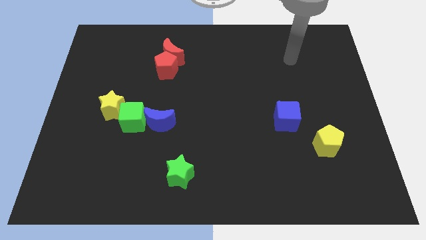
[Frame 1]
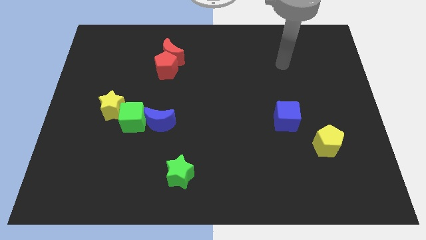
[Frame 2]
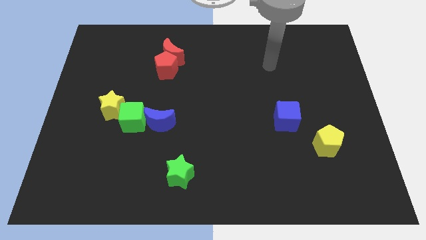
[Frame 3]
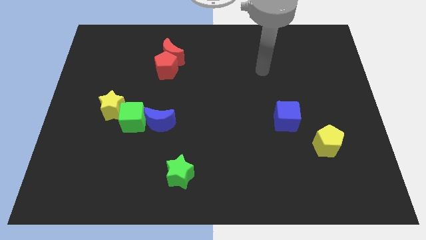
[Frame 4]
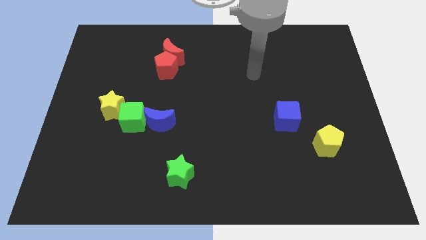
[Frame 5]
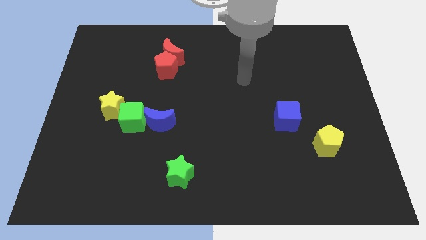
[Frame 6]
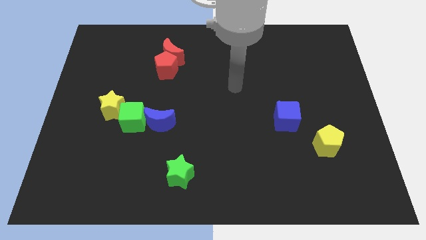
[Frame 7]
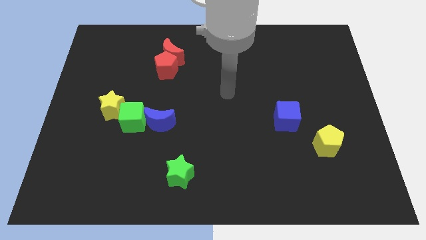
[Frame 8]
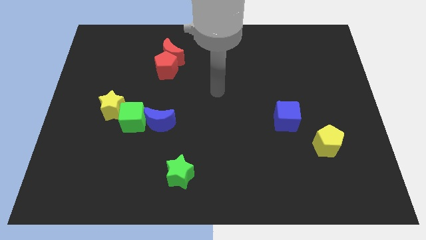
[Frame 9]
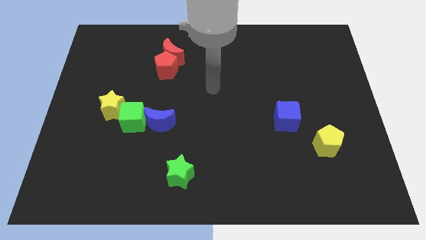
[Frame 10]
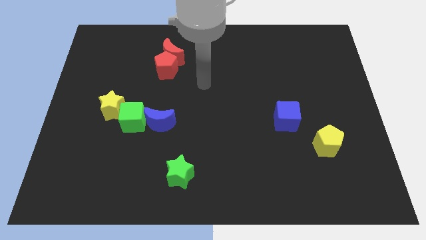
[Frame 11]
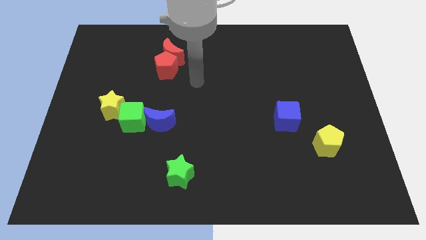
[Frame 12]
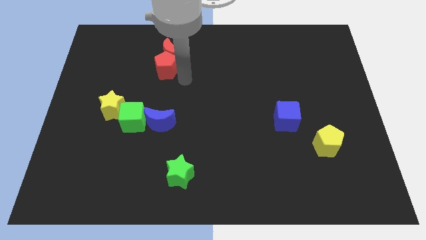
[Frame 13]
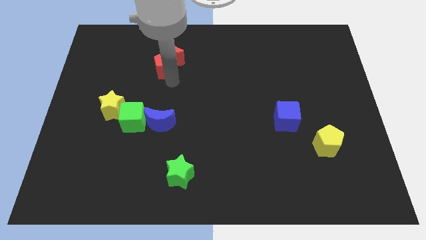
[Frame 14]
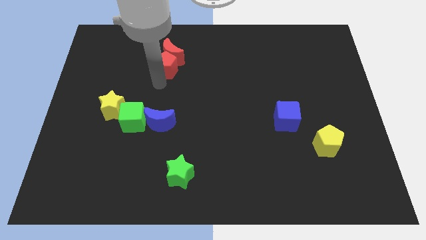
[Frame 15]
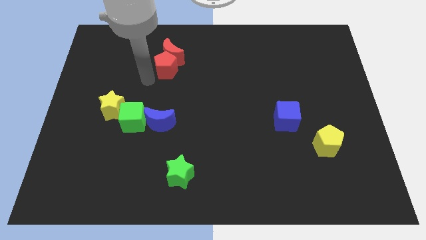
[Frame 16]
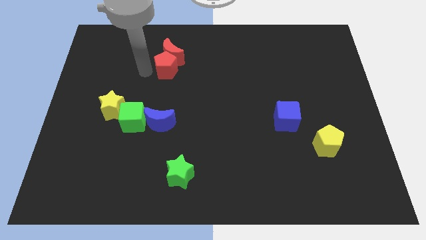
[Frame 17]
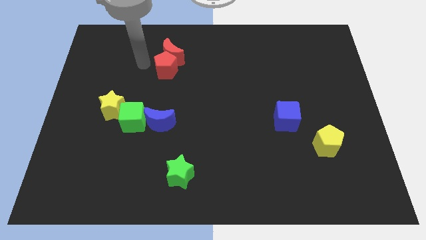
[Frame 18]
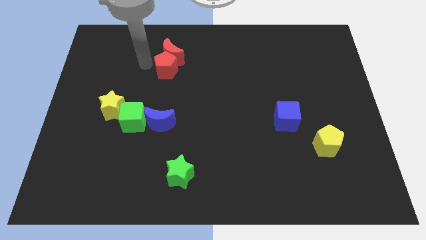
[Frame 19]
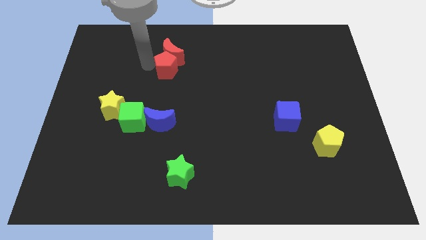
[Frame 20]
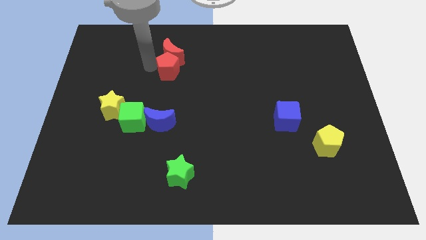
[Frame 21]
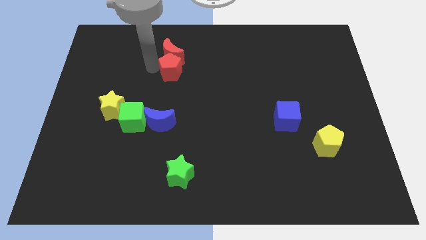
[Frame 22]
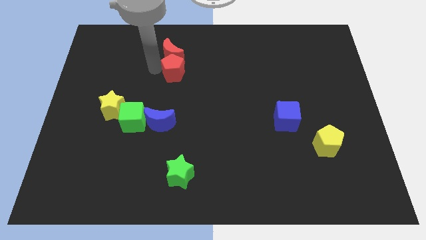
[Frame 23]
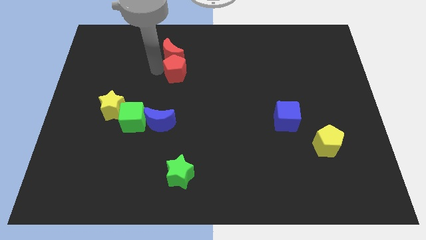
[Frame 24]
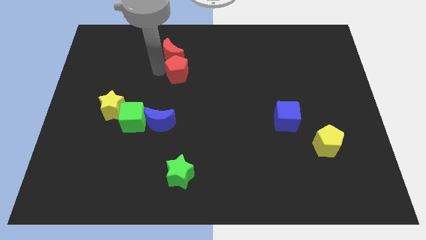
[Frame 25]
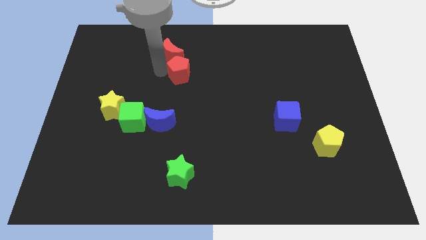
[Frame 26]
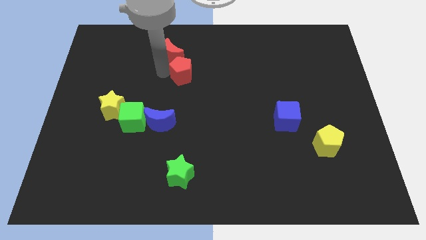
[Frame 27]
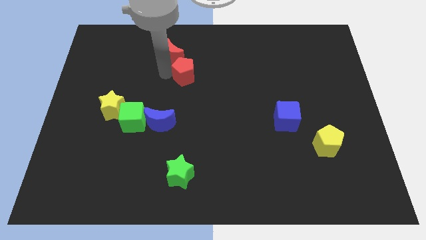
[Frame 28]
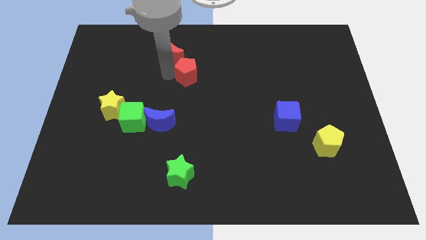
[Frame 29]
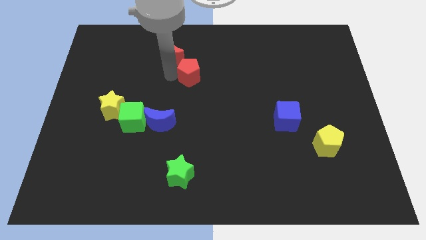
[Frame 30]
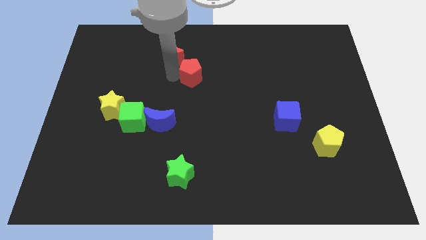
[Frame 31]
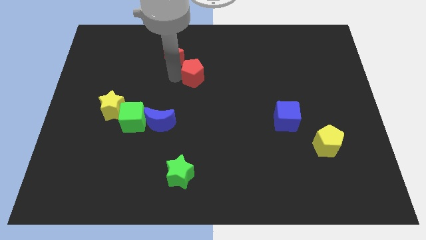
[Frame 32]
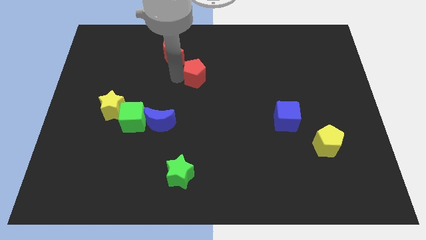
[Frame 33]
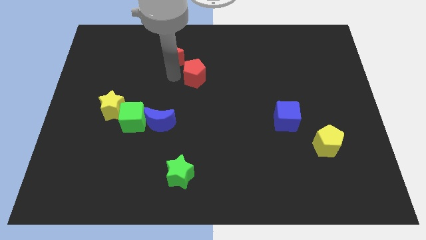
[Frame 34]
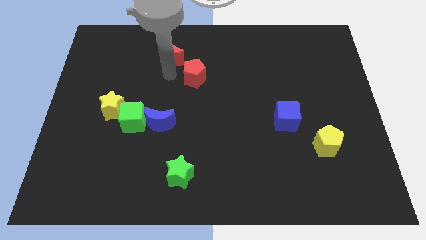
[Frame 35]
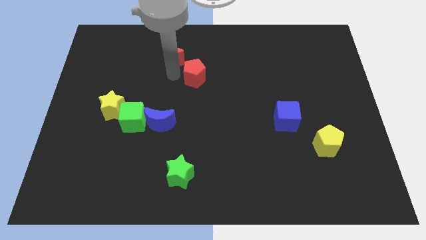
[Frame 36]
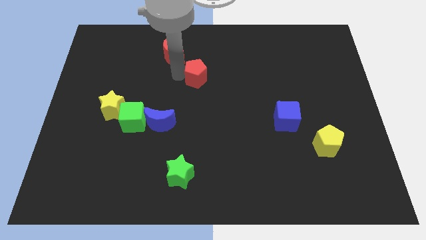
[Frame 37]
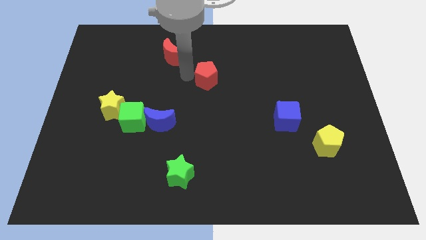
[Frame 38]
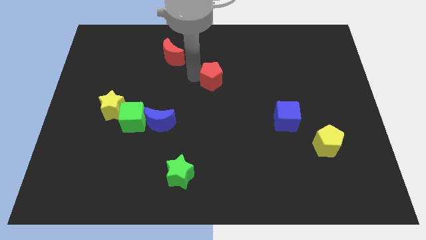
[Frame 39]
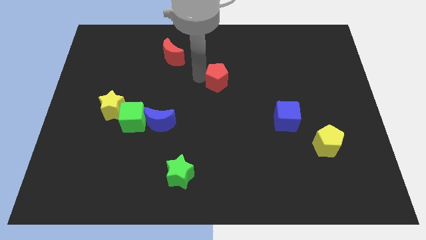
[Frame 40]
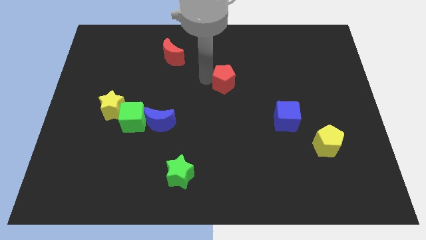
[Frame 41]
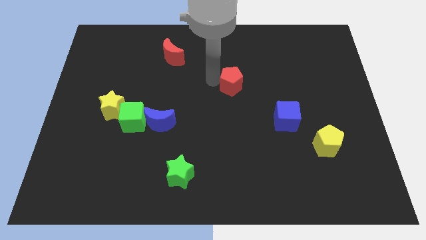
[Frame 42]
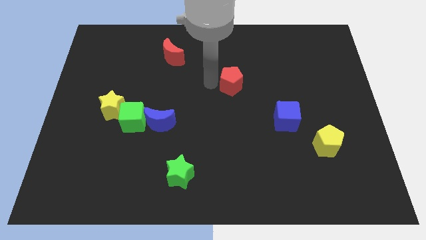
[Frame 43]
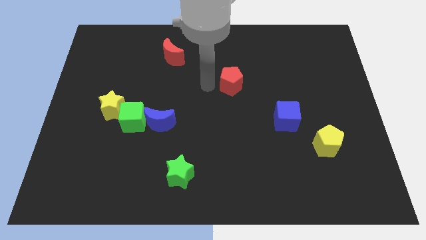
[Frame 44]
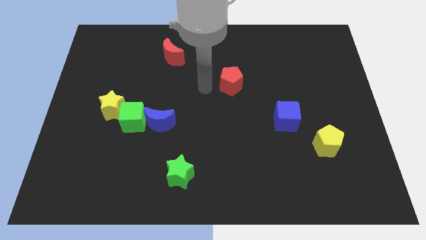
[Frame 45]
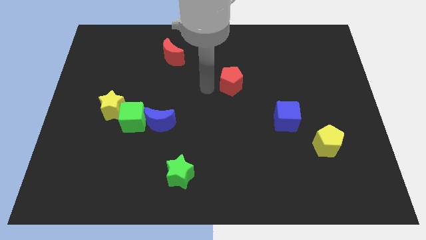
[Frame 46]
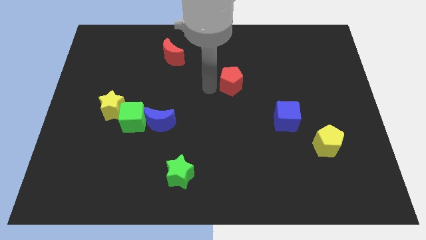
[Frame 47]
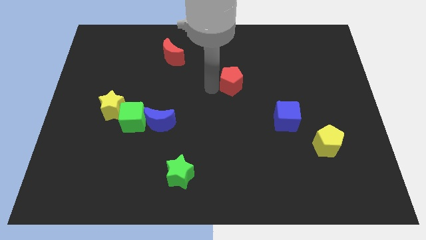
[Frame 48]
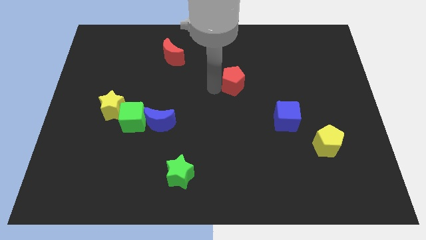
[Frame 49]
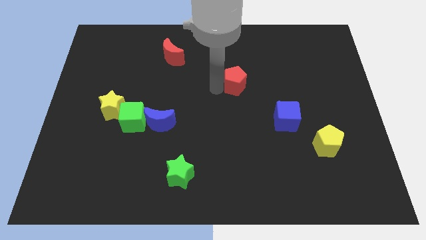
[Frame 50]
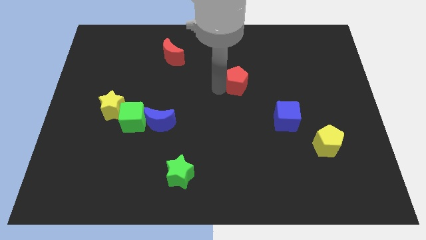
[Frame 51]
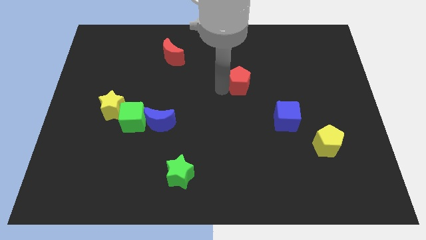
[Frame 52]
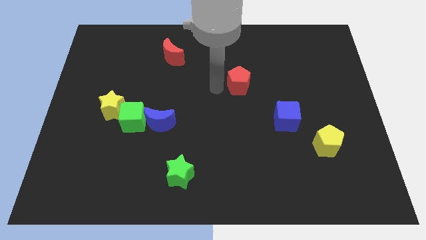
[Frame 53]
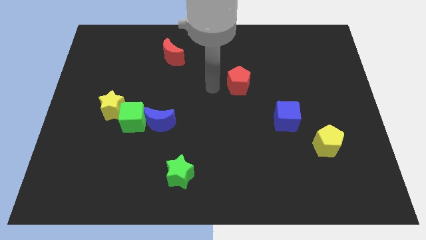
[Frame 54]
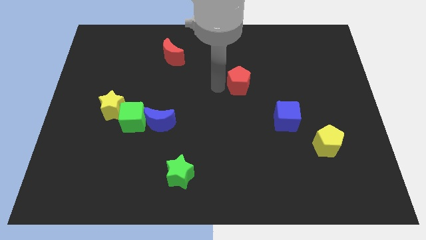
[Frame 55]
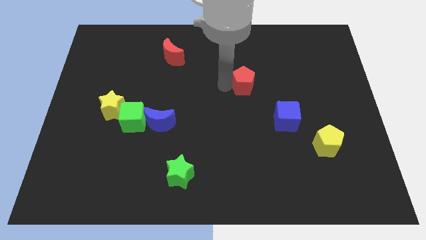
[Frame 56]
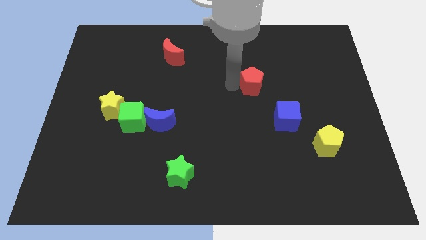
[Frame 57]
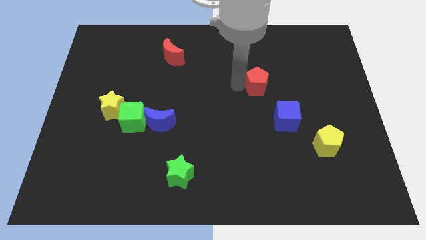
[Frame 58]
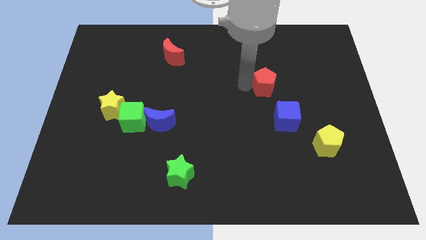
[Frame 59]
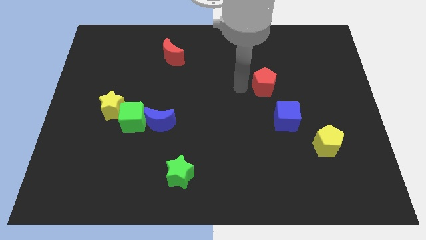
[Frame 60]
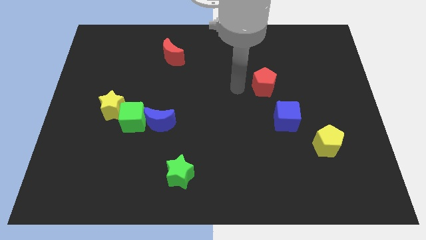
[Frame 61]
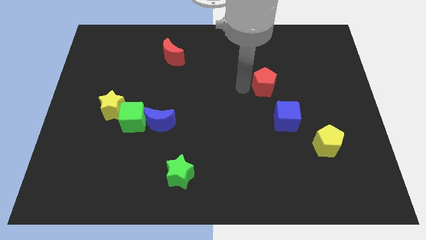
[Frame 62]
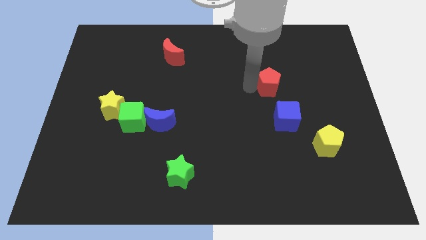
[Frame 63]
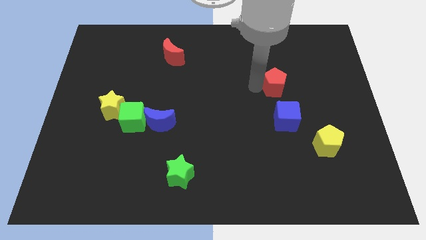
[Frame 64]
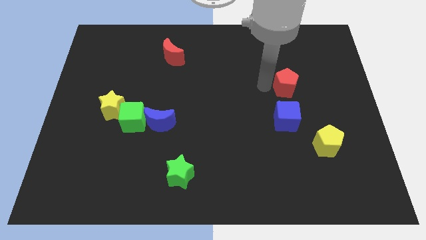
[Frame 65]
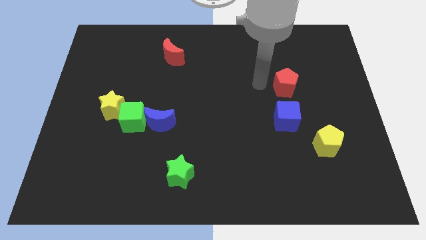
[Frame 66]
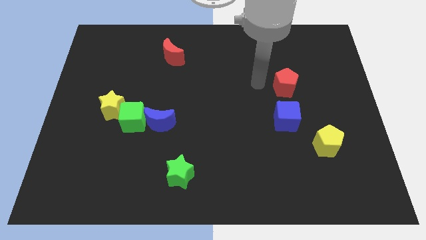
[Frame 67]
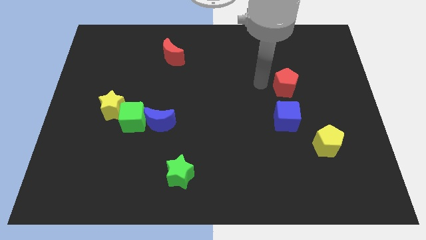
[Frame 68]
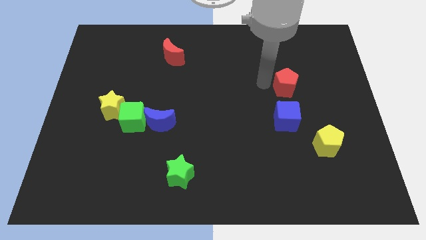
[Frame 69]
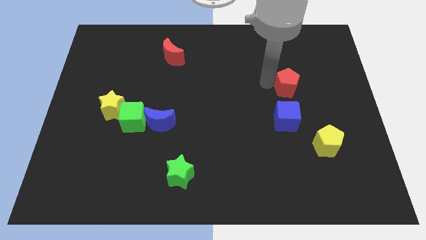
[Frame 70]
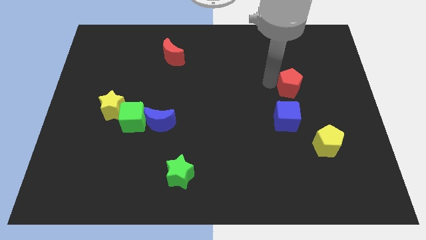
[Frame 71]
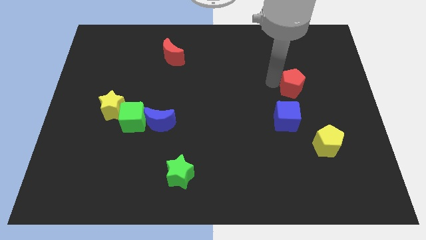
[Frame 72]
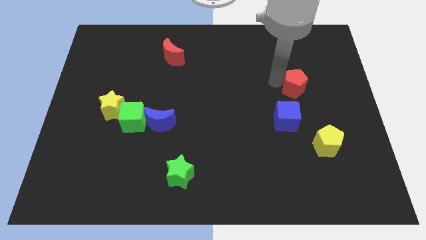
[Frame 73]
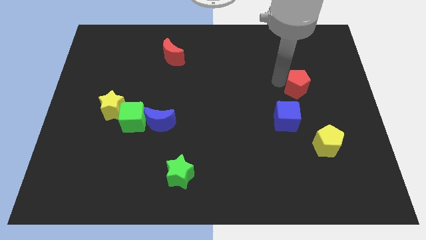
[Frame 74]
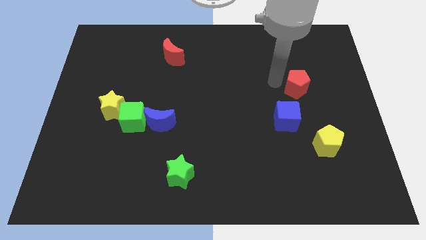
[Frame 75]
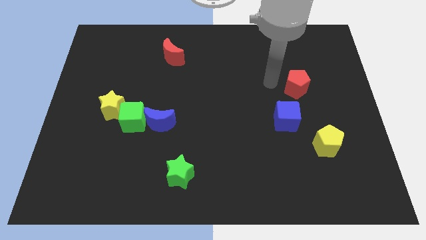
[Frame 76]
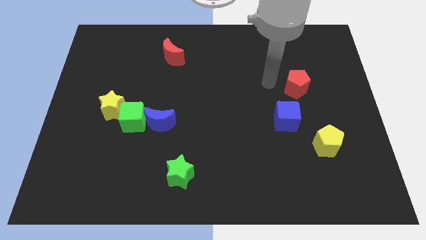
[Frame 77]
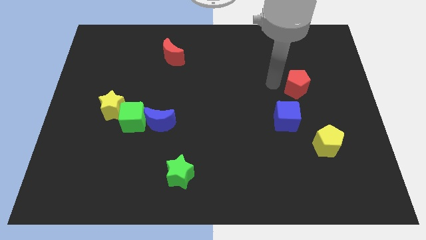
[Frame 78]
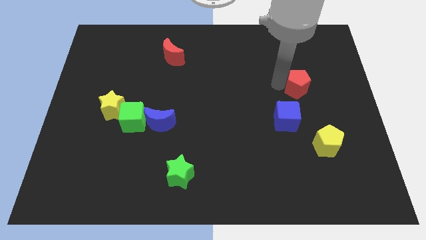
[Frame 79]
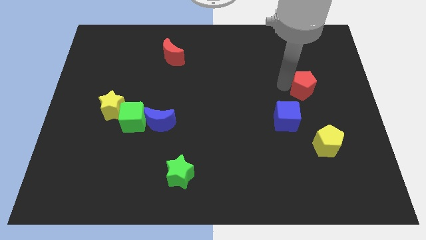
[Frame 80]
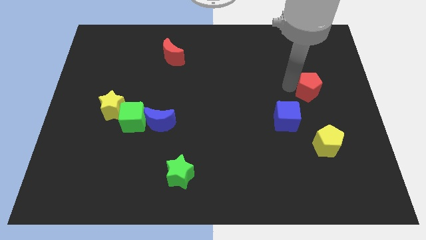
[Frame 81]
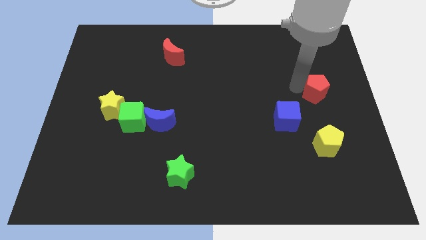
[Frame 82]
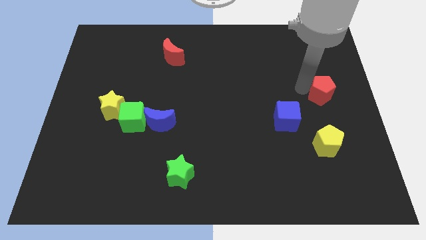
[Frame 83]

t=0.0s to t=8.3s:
put the red pentagon to the right side of the board
